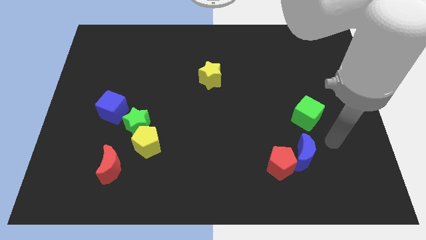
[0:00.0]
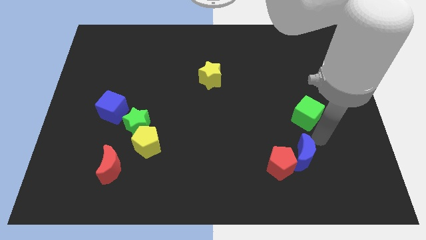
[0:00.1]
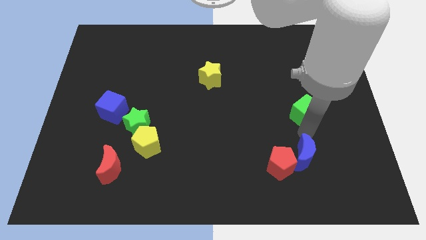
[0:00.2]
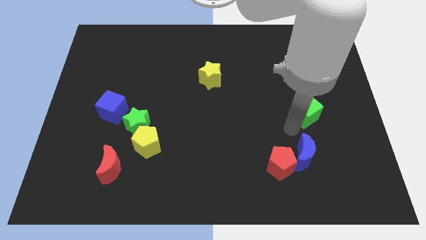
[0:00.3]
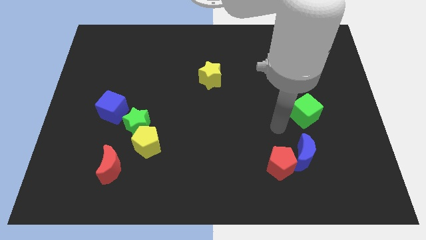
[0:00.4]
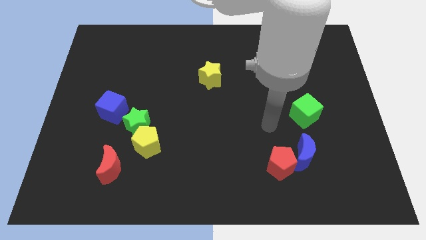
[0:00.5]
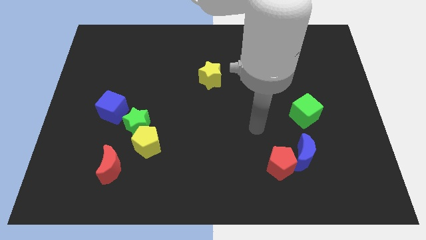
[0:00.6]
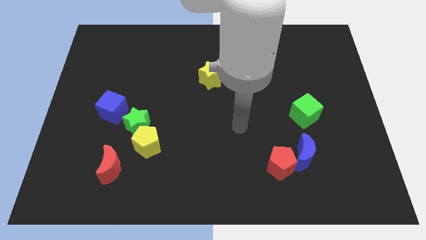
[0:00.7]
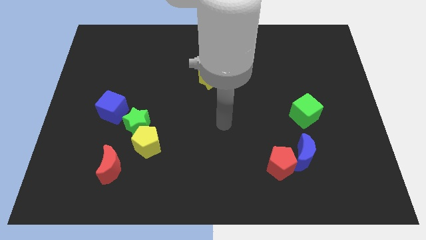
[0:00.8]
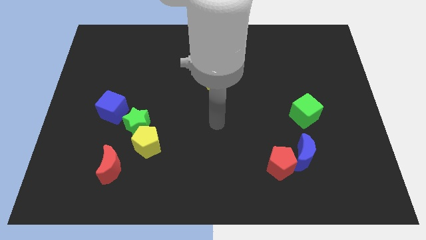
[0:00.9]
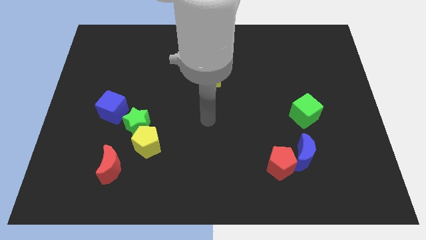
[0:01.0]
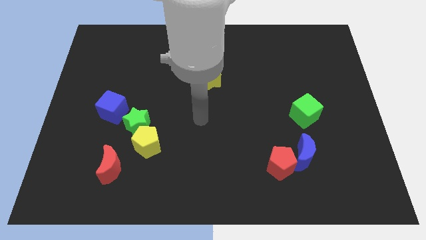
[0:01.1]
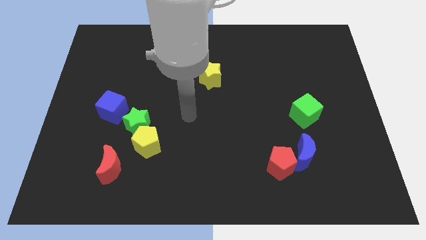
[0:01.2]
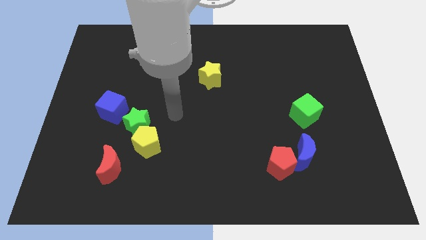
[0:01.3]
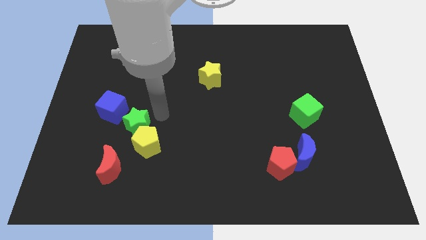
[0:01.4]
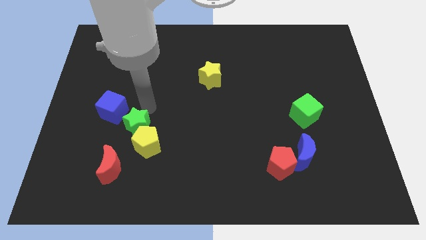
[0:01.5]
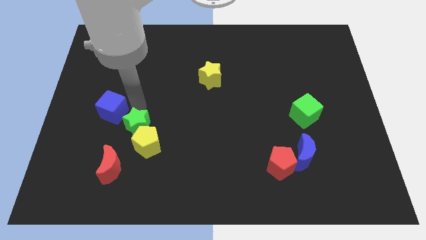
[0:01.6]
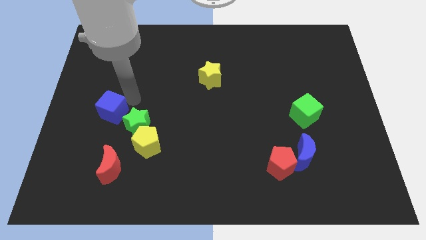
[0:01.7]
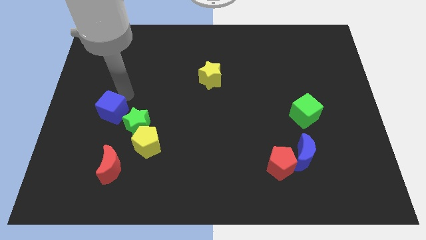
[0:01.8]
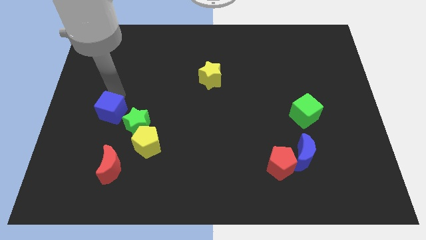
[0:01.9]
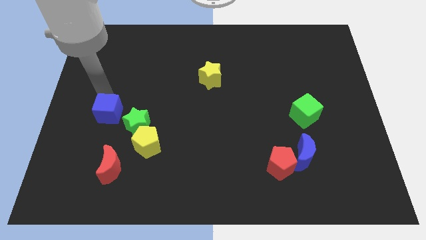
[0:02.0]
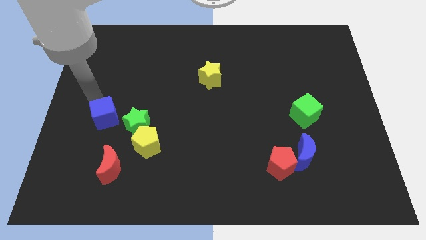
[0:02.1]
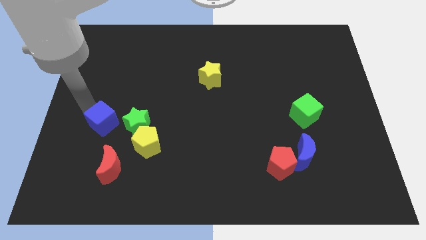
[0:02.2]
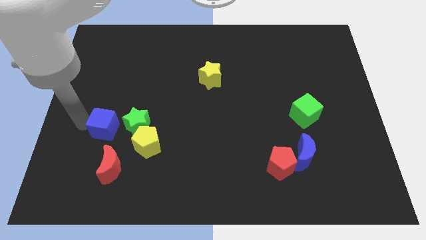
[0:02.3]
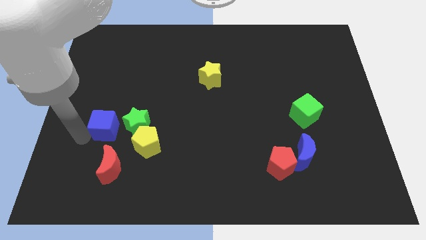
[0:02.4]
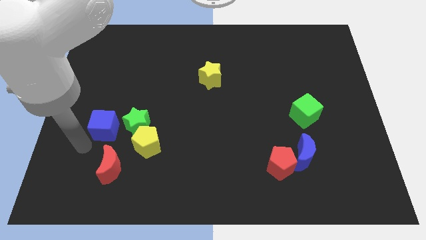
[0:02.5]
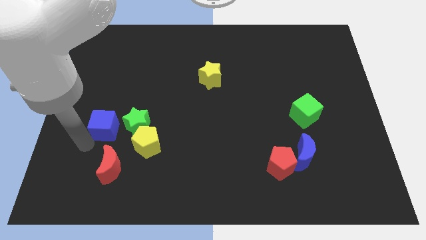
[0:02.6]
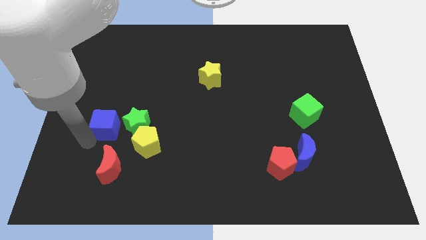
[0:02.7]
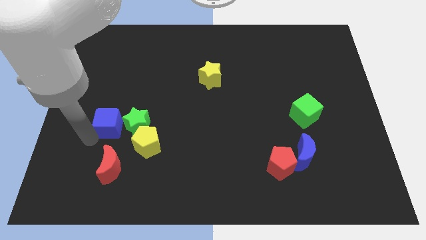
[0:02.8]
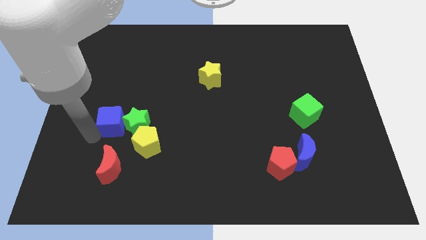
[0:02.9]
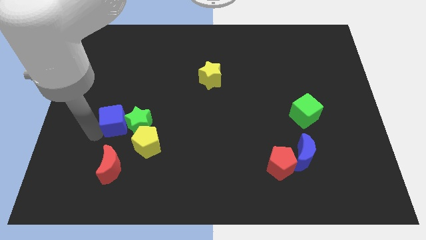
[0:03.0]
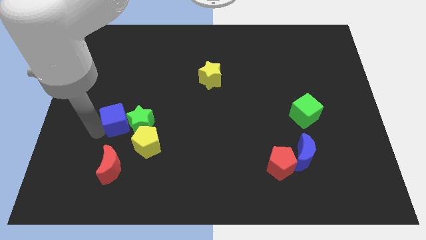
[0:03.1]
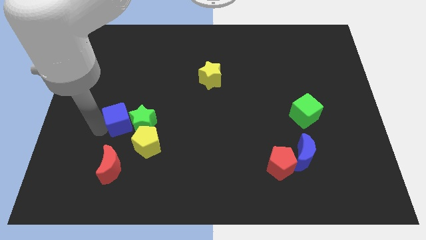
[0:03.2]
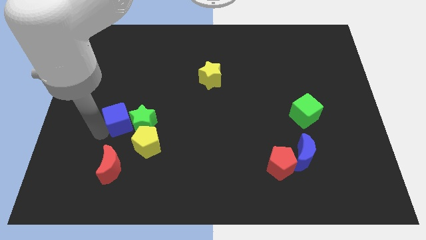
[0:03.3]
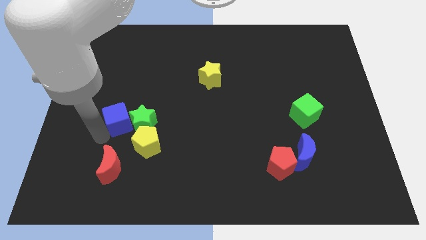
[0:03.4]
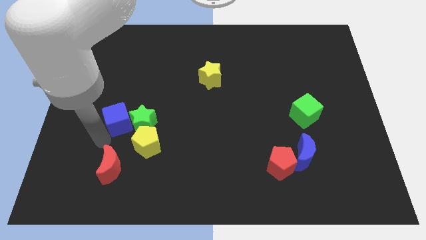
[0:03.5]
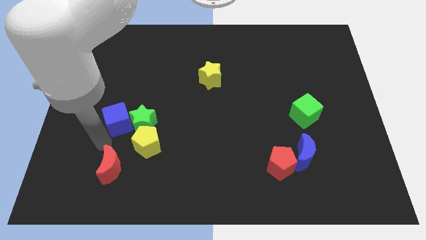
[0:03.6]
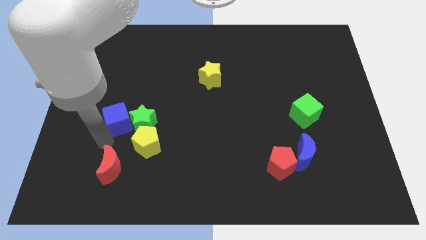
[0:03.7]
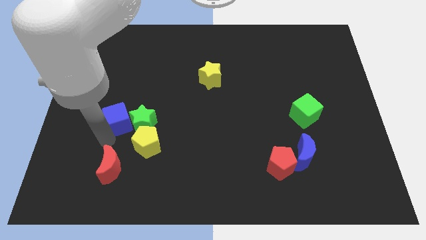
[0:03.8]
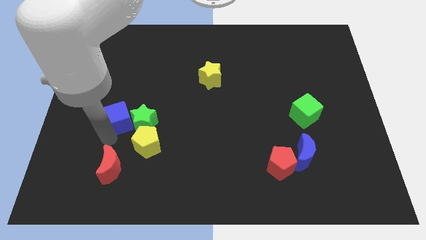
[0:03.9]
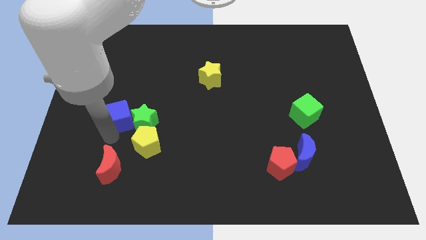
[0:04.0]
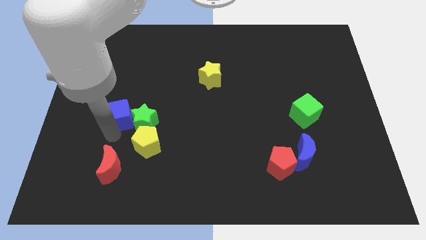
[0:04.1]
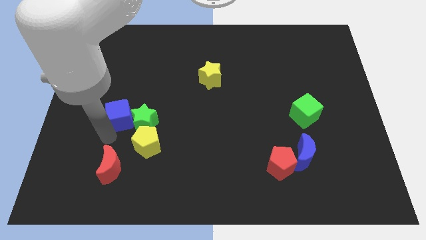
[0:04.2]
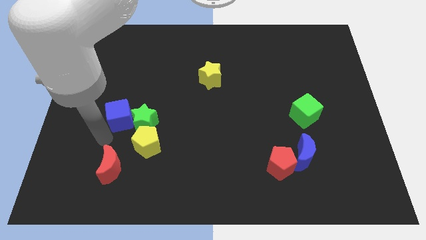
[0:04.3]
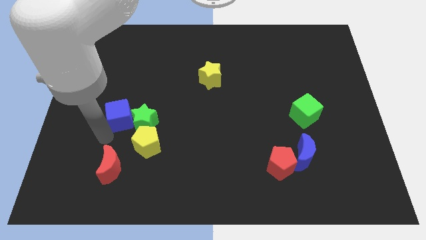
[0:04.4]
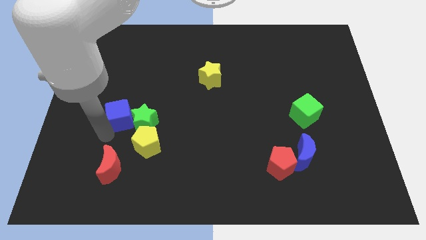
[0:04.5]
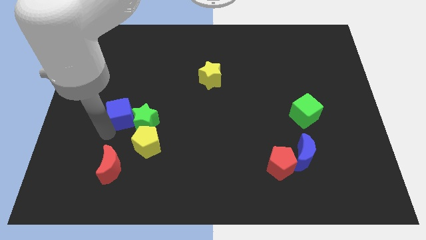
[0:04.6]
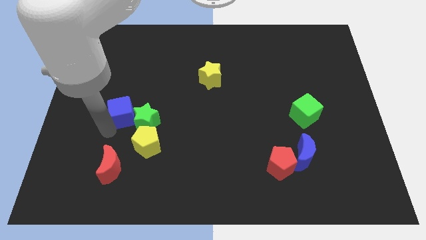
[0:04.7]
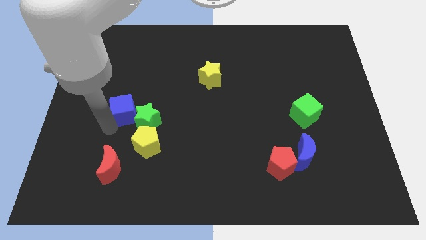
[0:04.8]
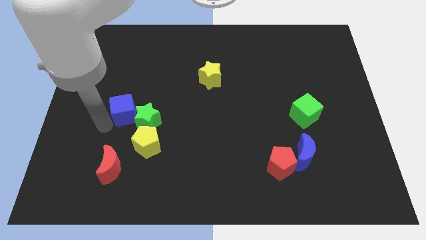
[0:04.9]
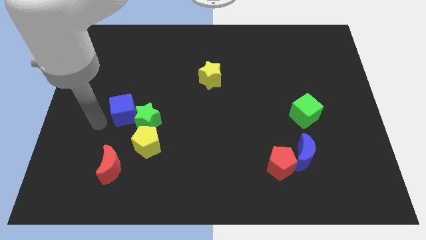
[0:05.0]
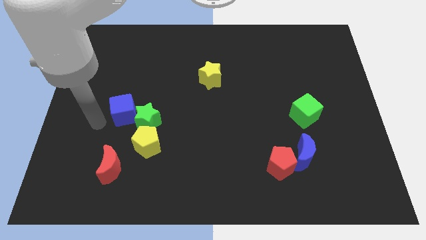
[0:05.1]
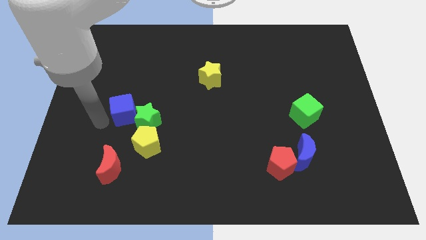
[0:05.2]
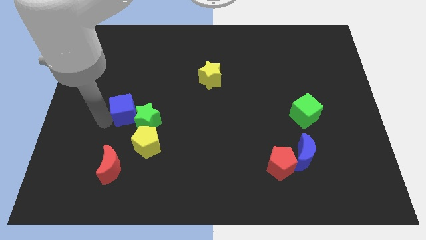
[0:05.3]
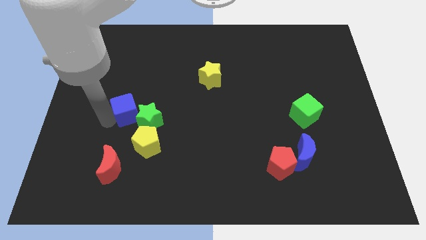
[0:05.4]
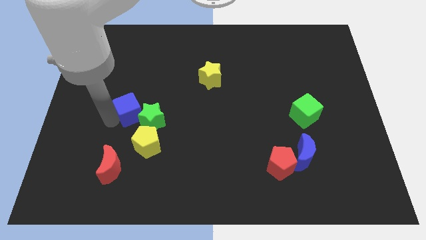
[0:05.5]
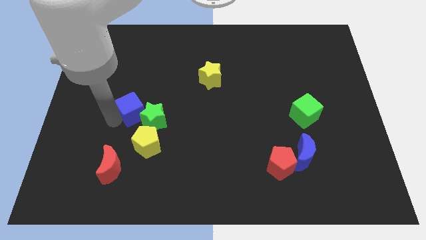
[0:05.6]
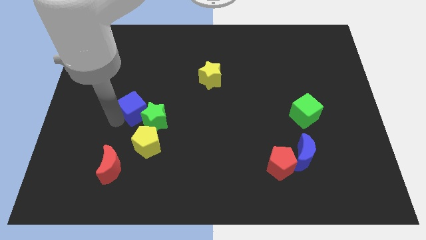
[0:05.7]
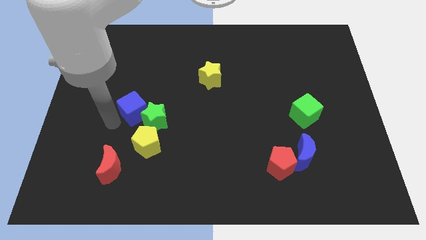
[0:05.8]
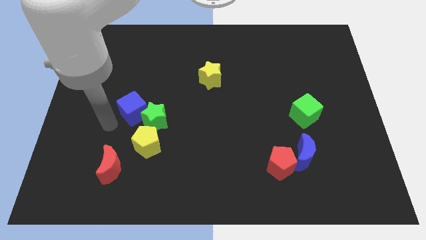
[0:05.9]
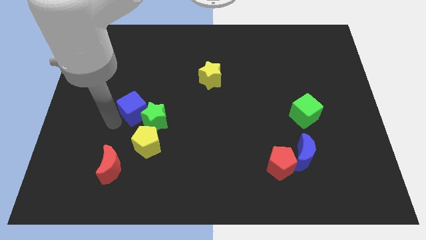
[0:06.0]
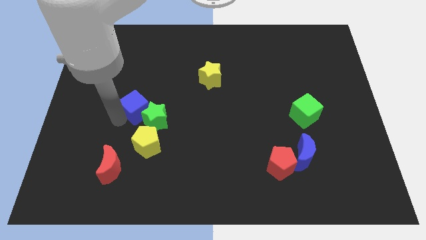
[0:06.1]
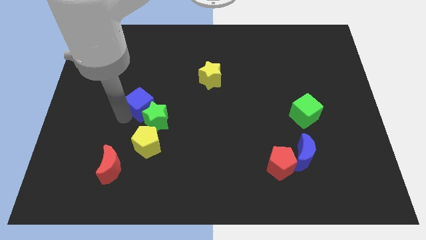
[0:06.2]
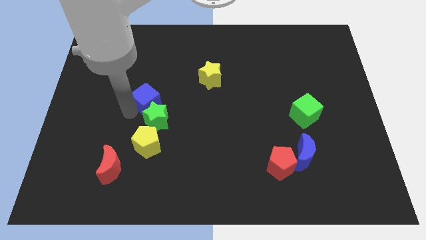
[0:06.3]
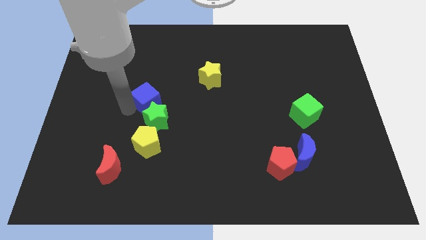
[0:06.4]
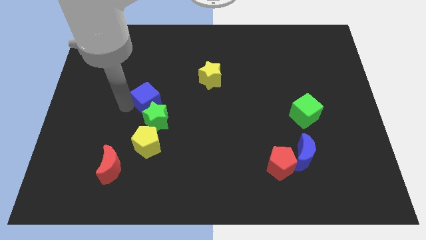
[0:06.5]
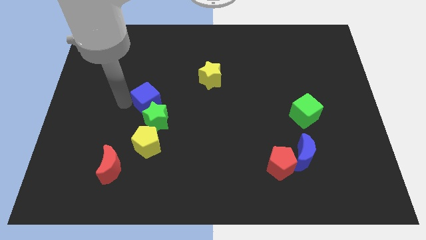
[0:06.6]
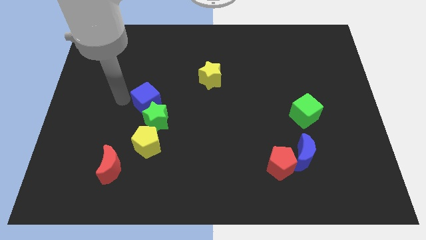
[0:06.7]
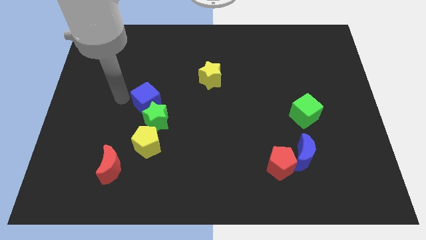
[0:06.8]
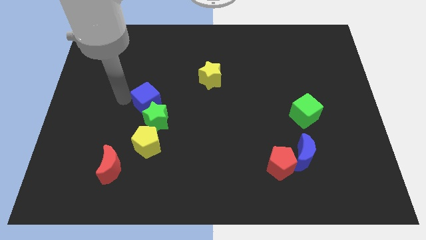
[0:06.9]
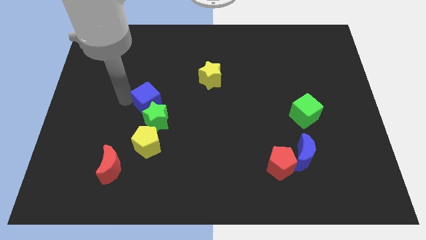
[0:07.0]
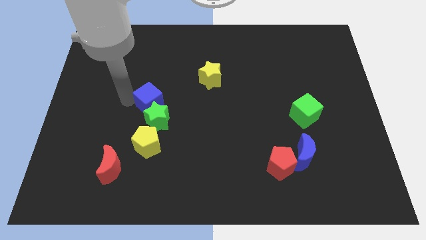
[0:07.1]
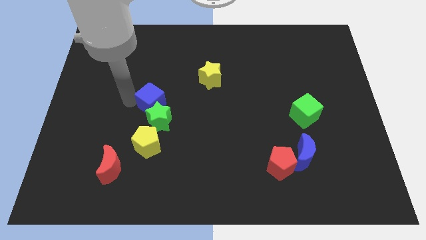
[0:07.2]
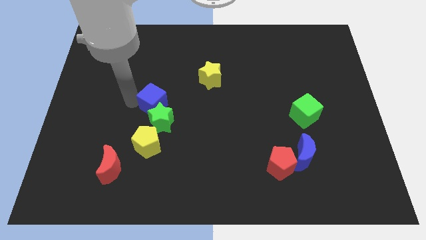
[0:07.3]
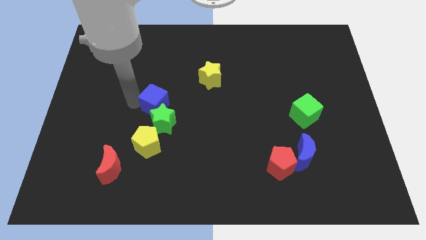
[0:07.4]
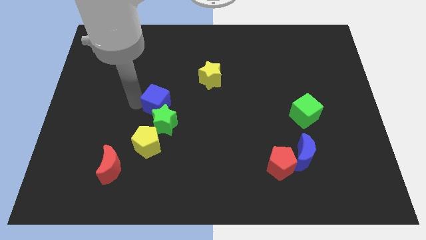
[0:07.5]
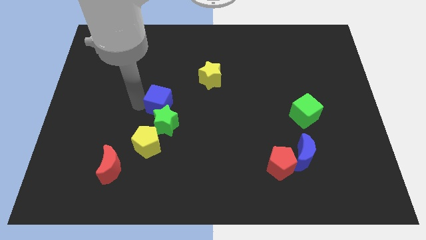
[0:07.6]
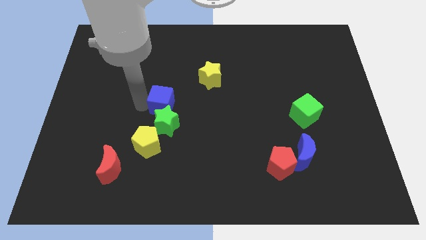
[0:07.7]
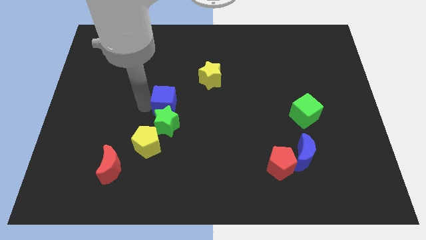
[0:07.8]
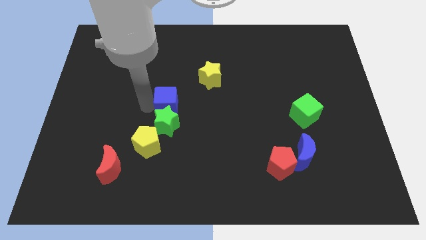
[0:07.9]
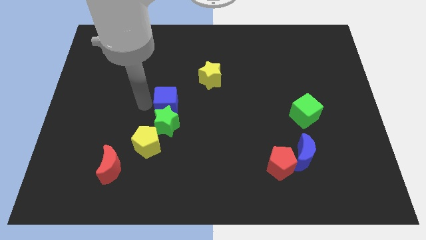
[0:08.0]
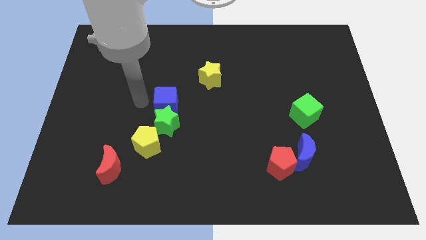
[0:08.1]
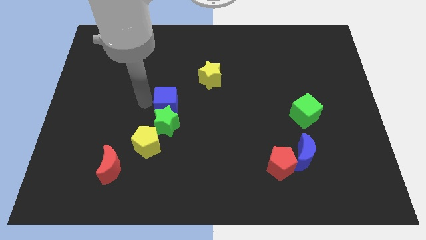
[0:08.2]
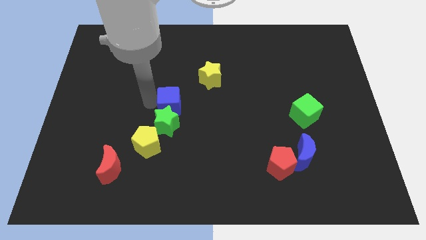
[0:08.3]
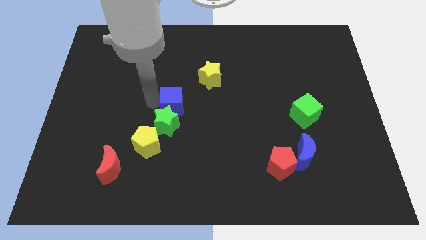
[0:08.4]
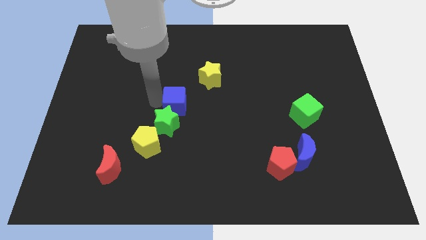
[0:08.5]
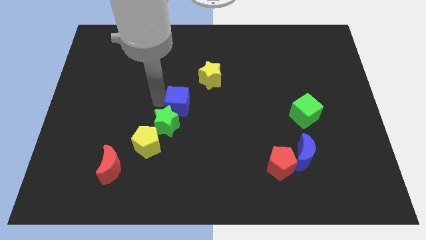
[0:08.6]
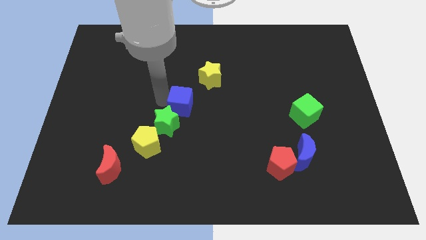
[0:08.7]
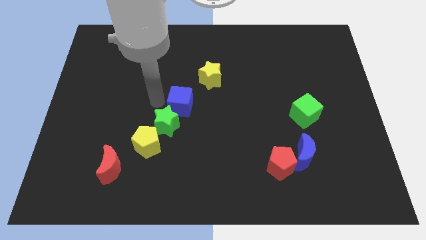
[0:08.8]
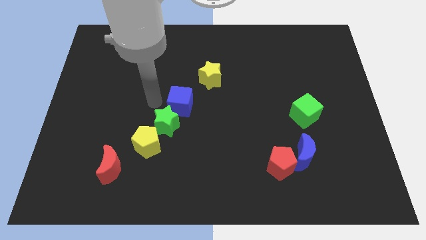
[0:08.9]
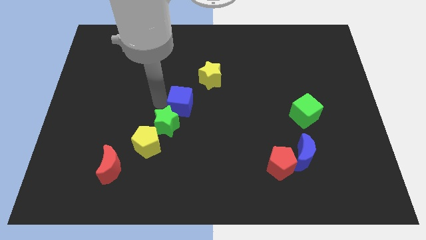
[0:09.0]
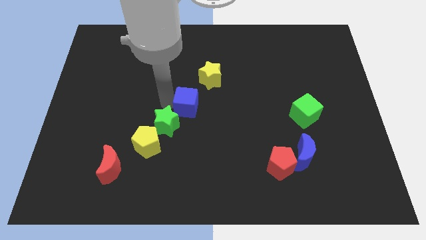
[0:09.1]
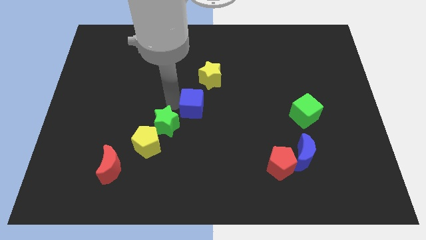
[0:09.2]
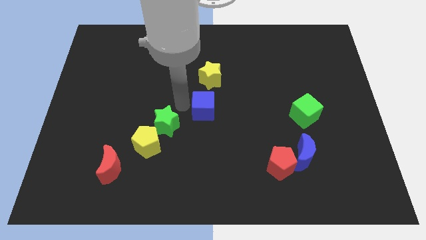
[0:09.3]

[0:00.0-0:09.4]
push the blue cube to the right
